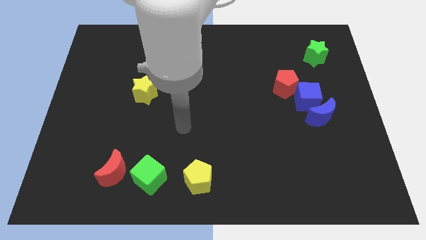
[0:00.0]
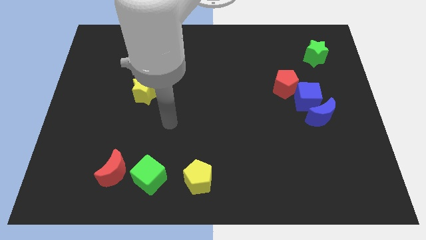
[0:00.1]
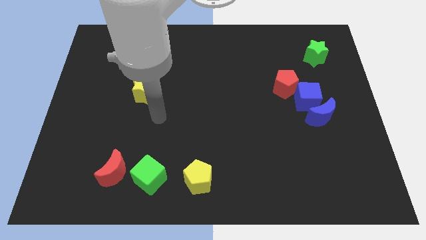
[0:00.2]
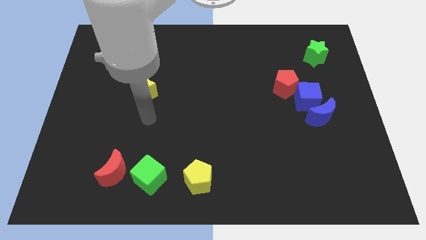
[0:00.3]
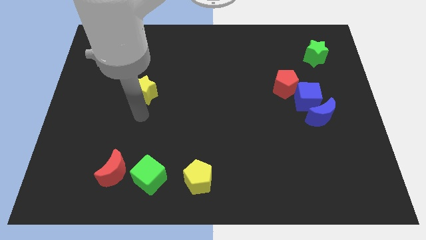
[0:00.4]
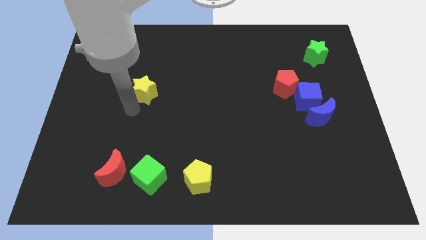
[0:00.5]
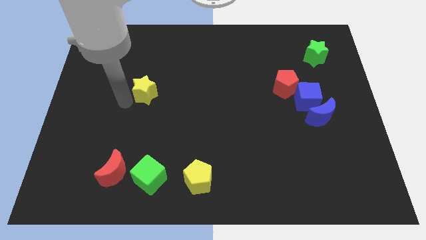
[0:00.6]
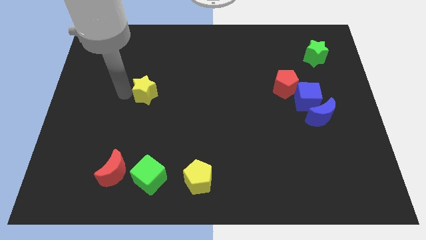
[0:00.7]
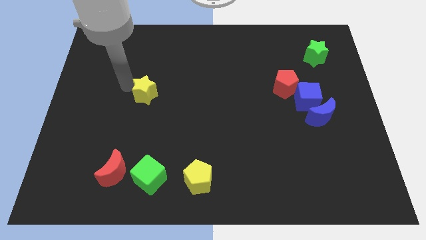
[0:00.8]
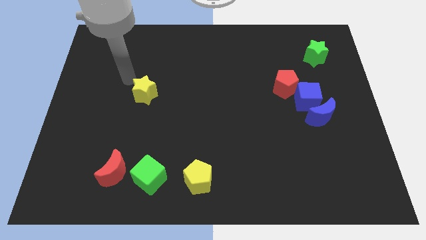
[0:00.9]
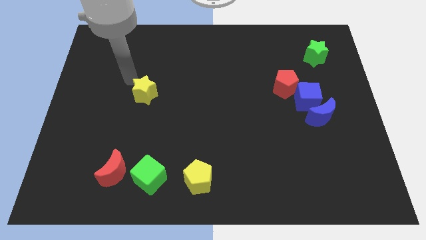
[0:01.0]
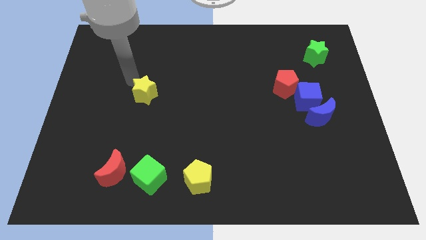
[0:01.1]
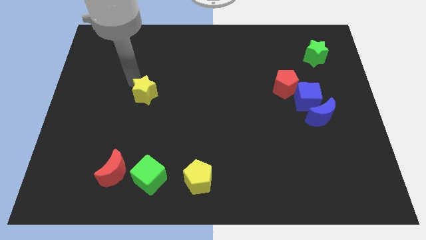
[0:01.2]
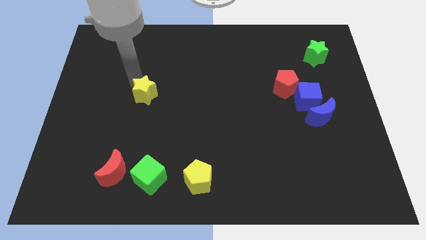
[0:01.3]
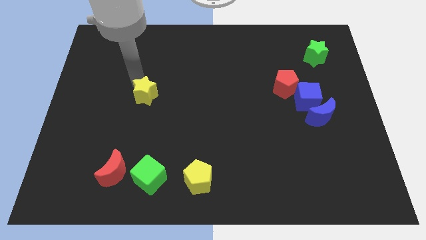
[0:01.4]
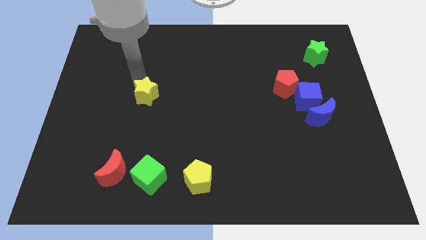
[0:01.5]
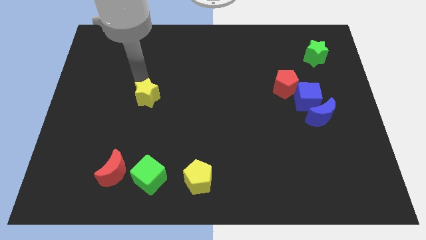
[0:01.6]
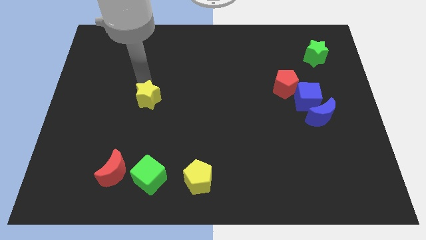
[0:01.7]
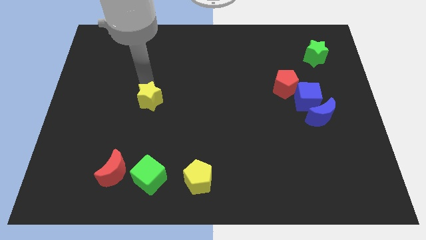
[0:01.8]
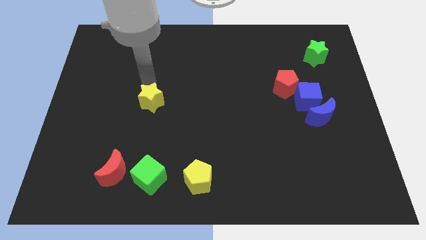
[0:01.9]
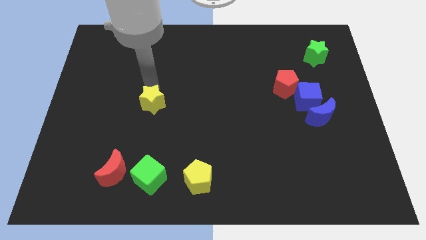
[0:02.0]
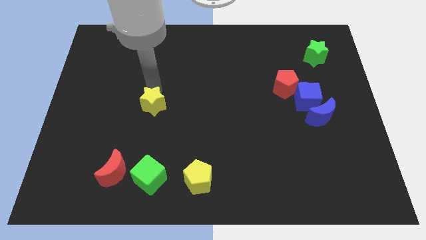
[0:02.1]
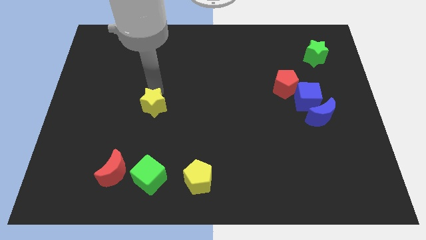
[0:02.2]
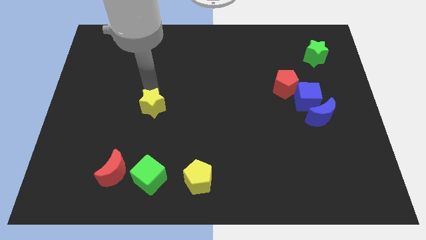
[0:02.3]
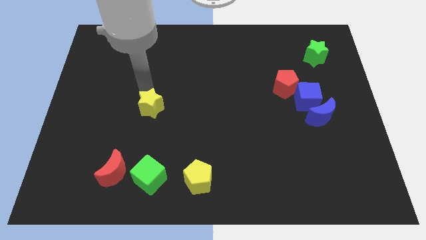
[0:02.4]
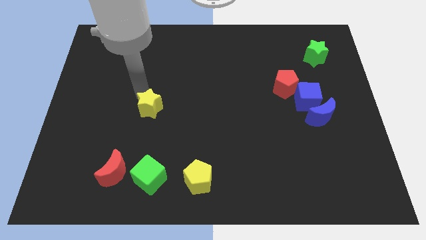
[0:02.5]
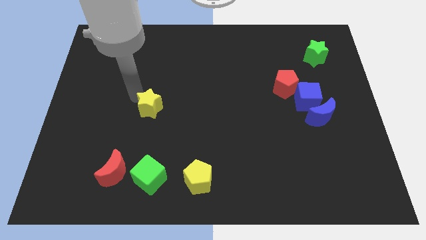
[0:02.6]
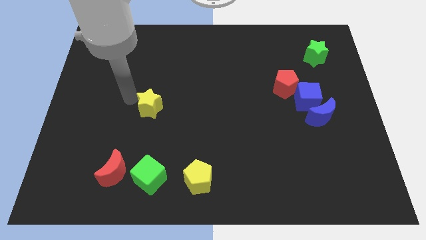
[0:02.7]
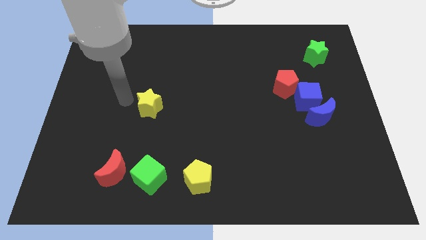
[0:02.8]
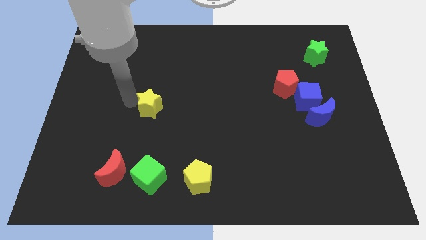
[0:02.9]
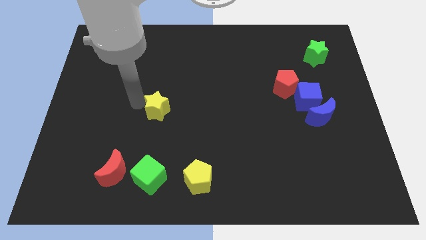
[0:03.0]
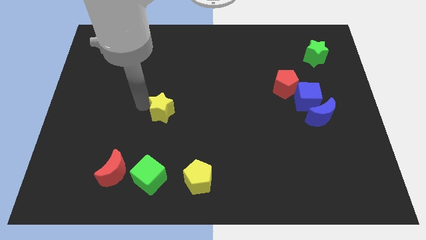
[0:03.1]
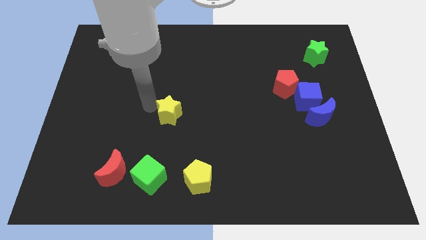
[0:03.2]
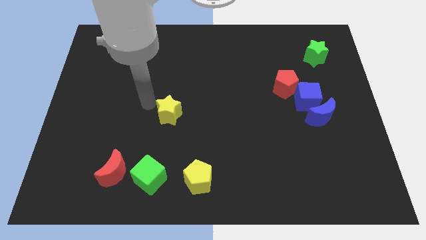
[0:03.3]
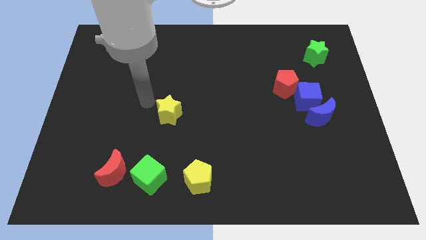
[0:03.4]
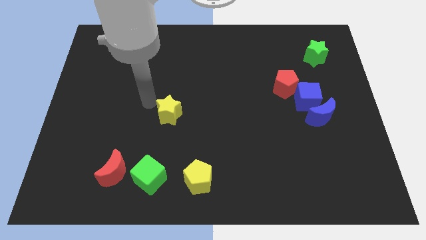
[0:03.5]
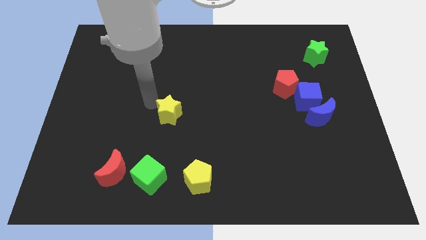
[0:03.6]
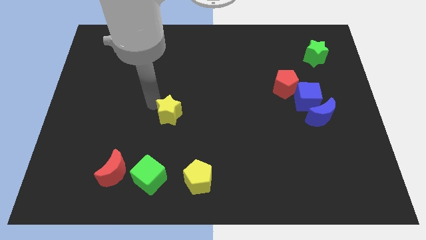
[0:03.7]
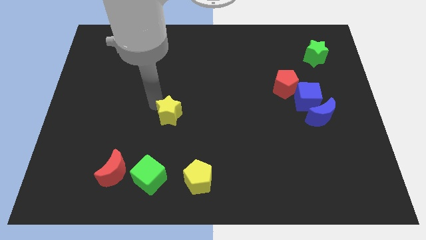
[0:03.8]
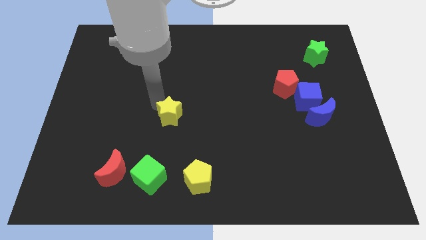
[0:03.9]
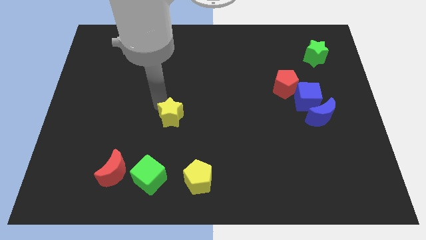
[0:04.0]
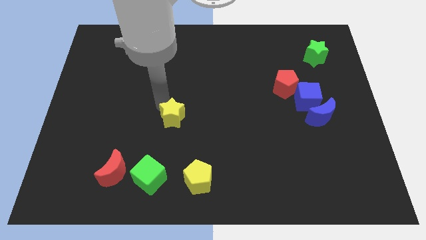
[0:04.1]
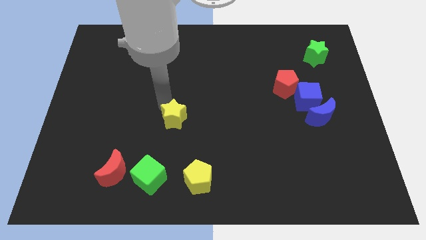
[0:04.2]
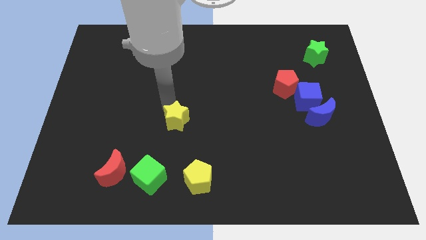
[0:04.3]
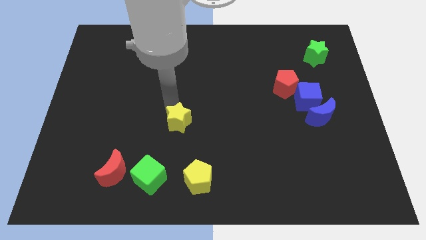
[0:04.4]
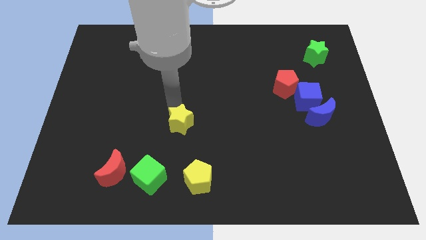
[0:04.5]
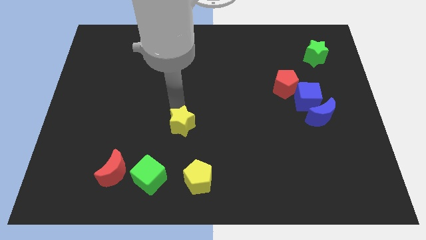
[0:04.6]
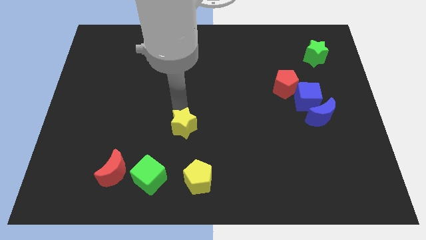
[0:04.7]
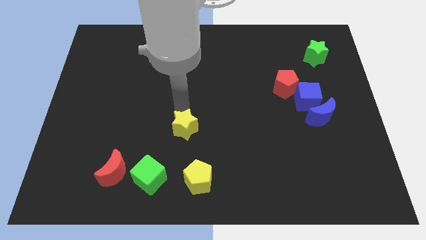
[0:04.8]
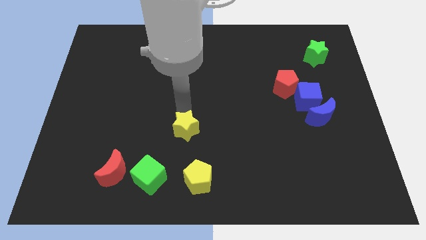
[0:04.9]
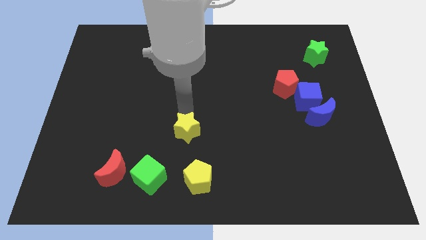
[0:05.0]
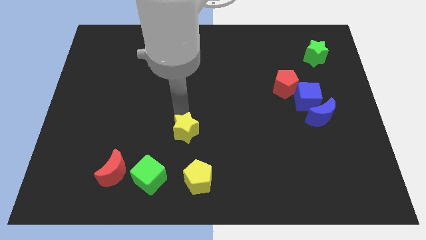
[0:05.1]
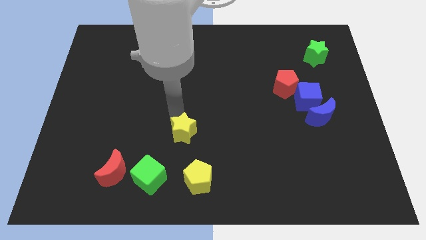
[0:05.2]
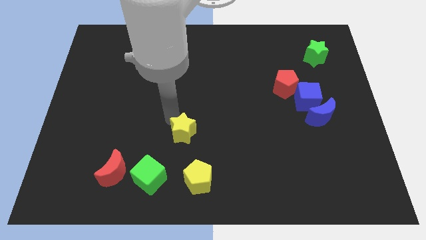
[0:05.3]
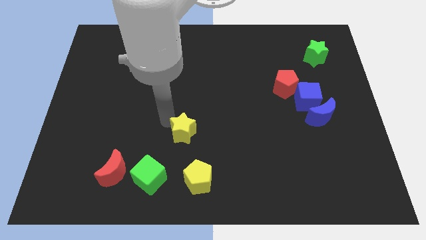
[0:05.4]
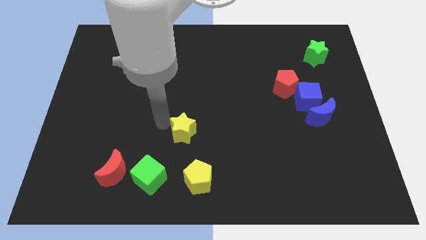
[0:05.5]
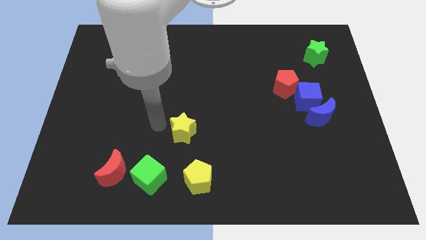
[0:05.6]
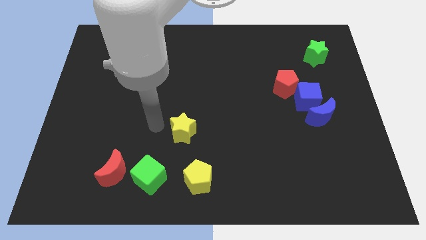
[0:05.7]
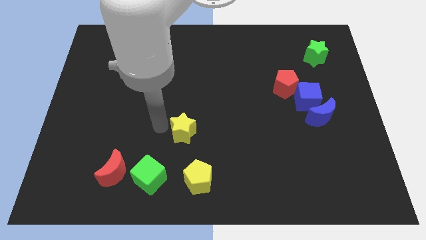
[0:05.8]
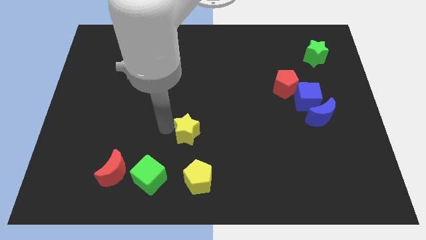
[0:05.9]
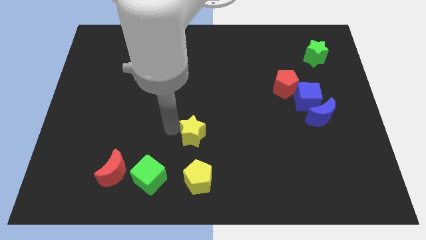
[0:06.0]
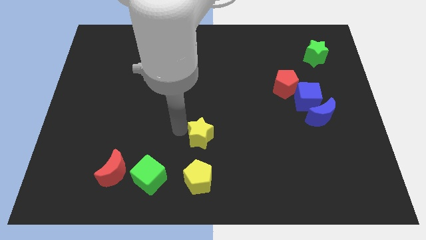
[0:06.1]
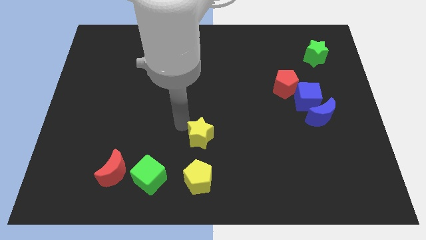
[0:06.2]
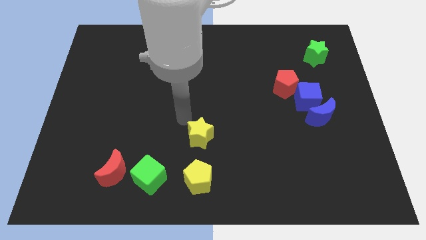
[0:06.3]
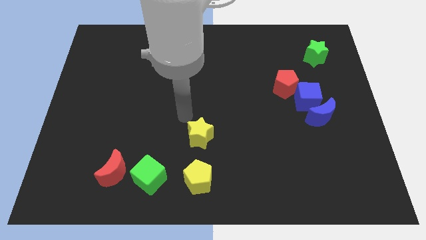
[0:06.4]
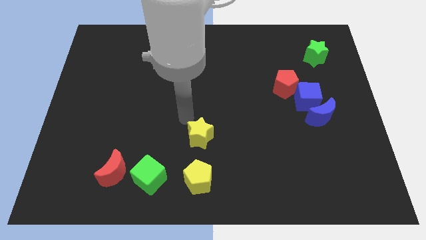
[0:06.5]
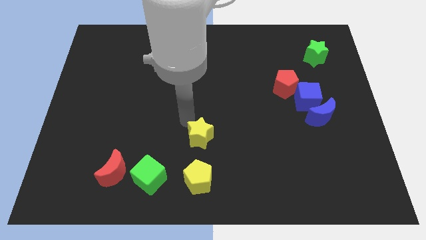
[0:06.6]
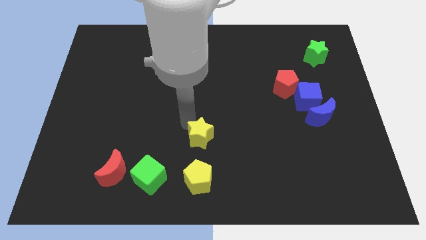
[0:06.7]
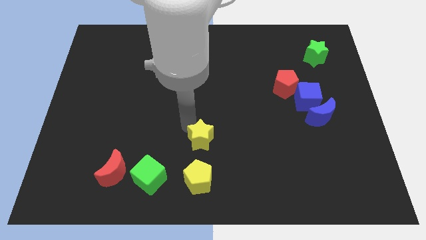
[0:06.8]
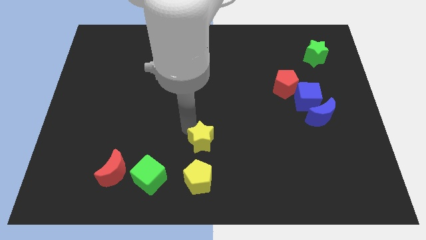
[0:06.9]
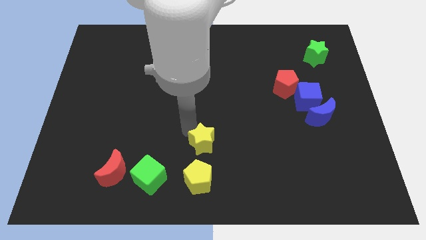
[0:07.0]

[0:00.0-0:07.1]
move the yellow star down and right diagonally

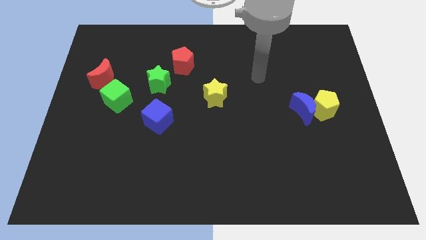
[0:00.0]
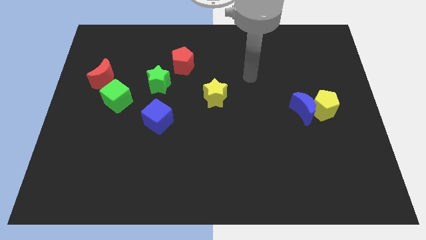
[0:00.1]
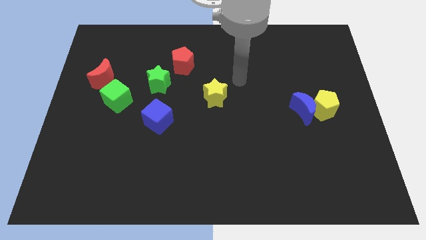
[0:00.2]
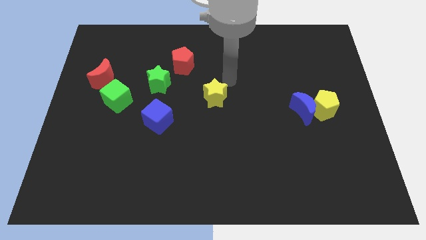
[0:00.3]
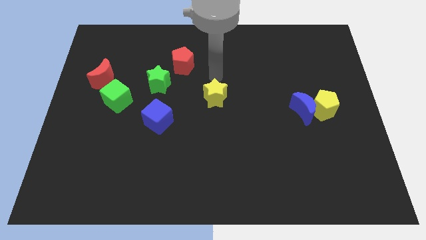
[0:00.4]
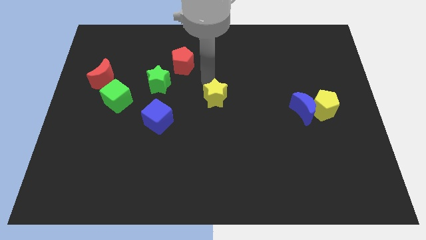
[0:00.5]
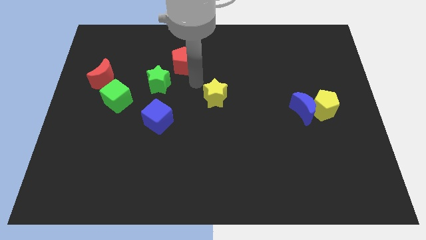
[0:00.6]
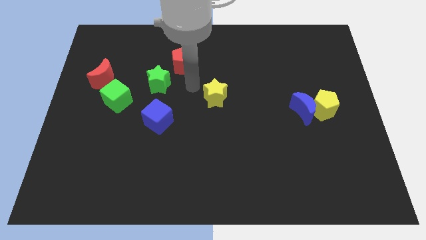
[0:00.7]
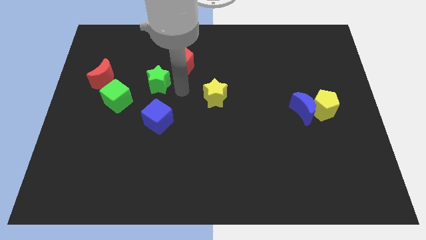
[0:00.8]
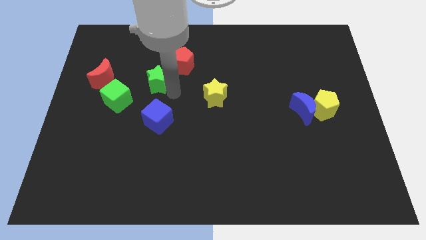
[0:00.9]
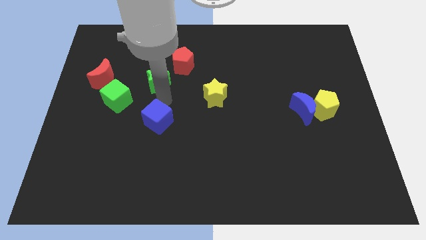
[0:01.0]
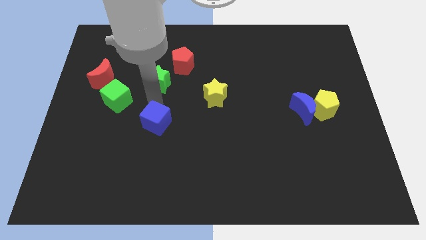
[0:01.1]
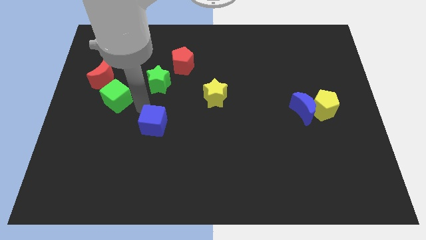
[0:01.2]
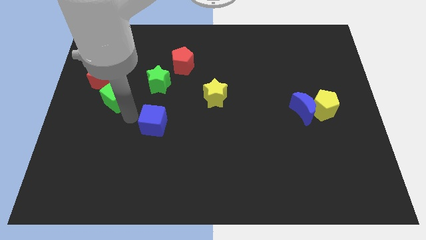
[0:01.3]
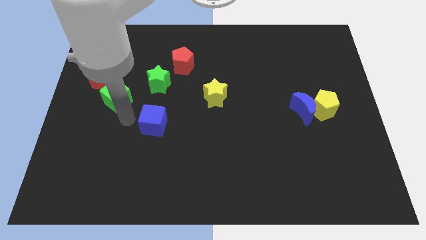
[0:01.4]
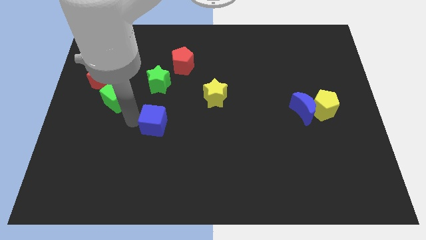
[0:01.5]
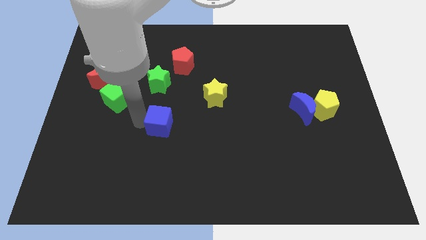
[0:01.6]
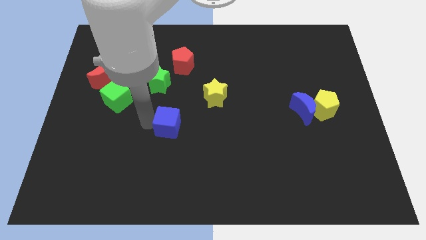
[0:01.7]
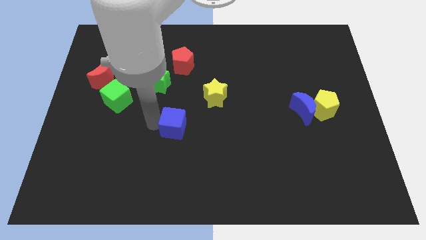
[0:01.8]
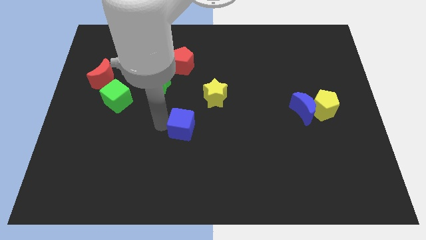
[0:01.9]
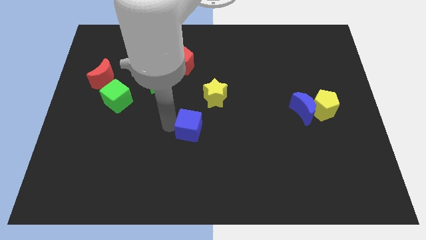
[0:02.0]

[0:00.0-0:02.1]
push the blue cube a bit to the right
